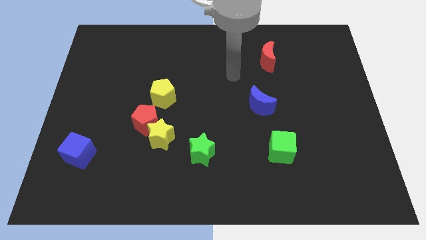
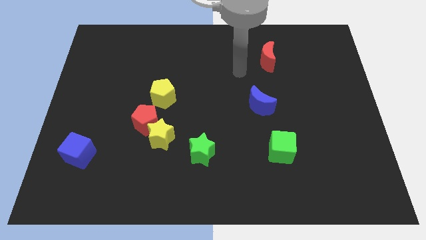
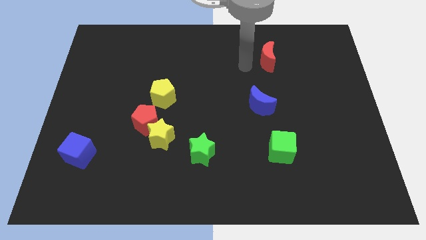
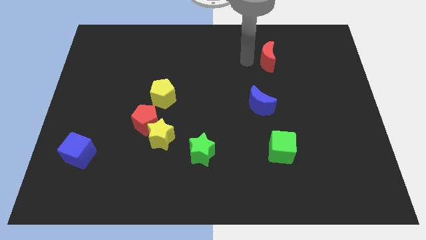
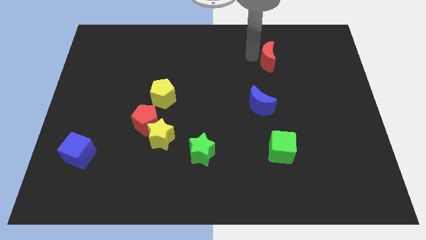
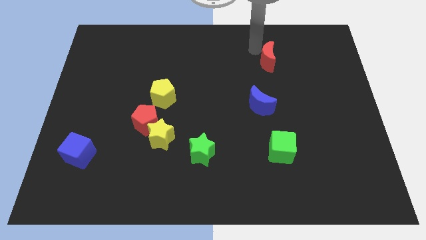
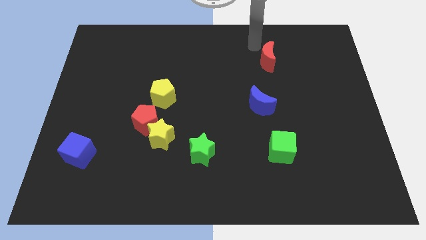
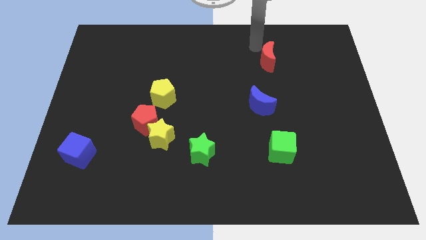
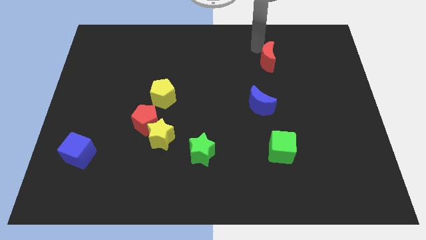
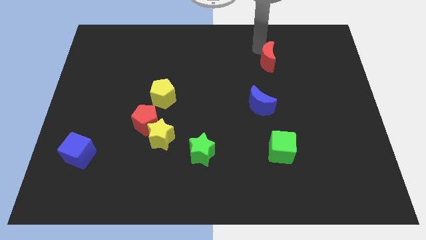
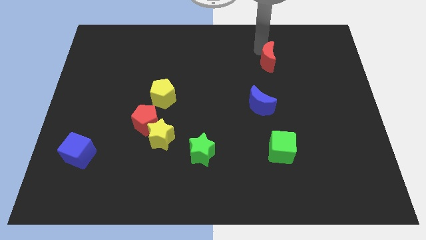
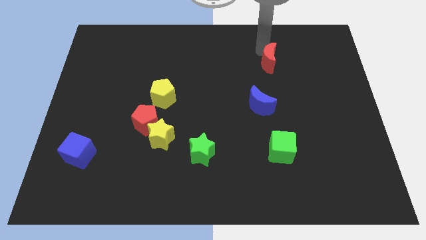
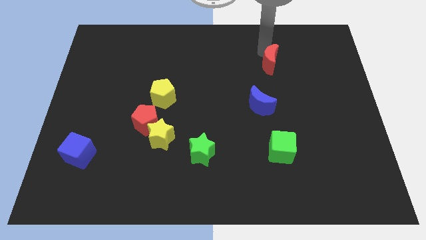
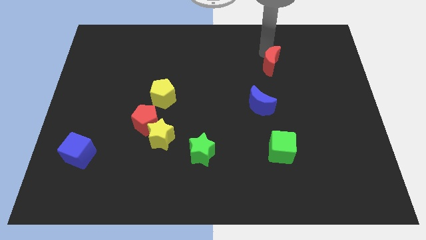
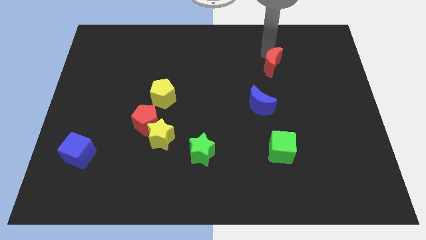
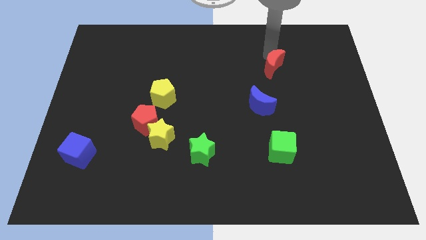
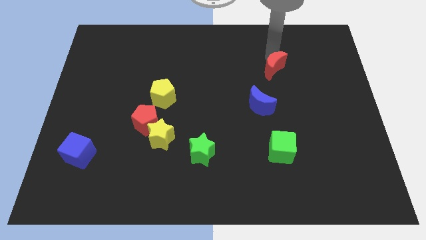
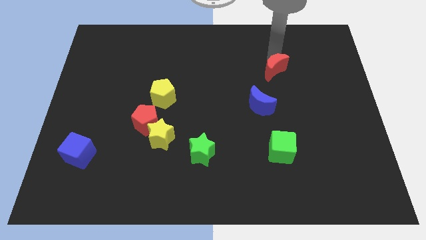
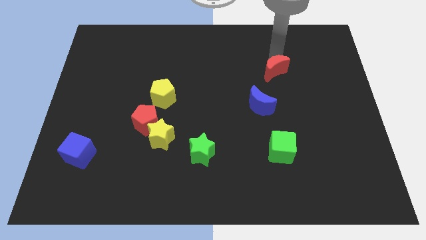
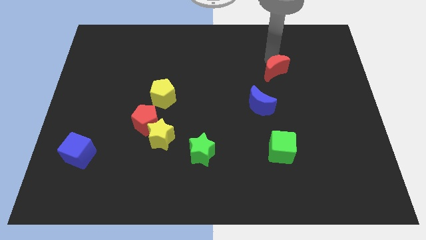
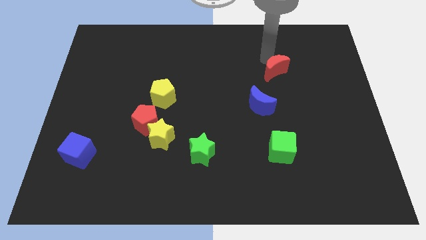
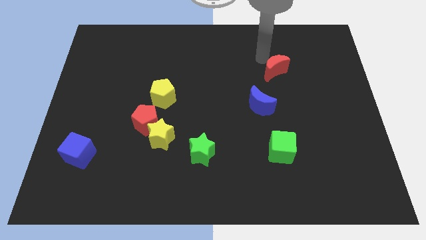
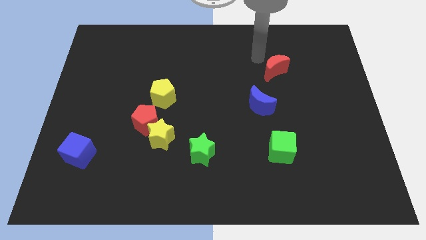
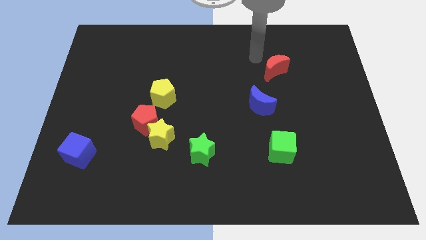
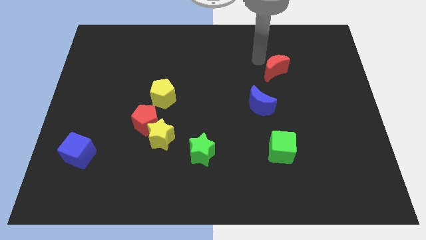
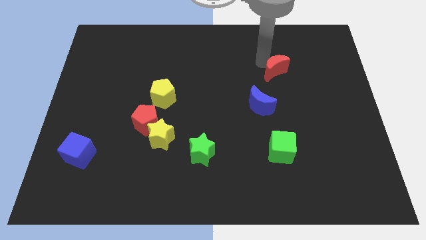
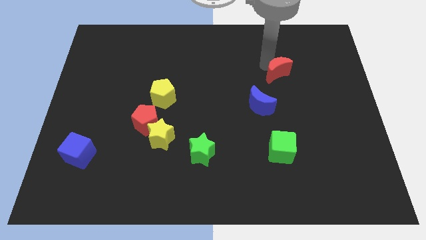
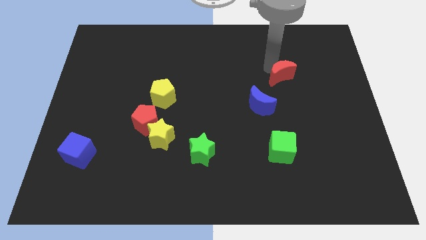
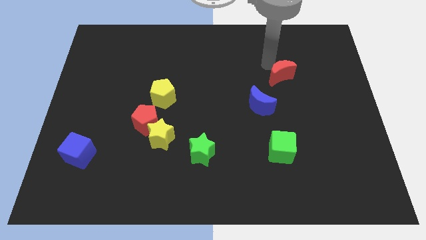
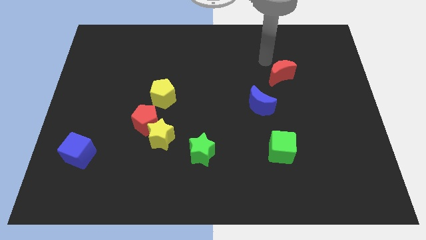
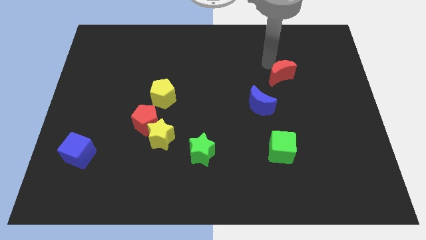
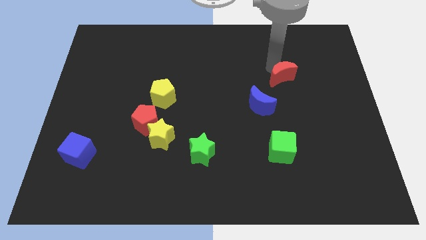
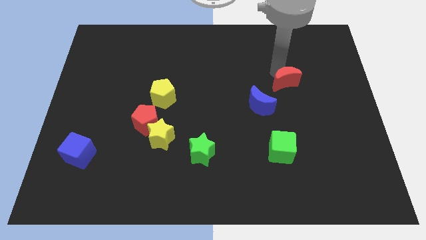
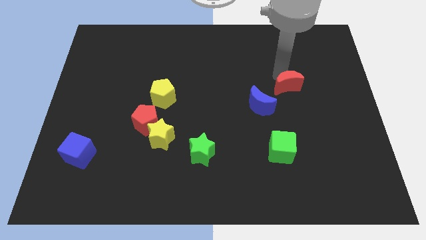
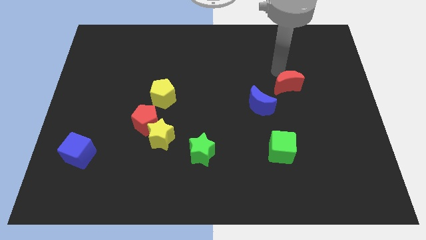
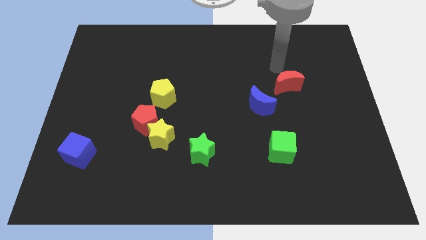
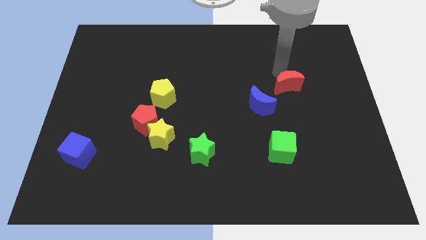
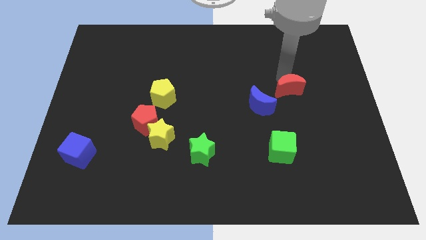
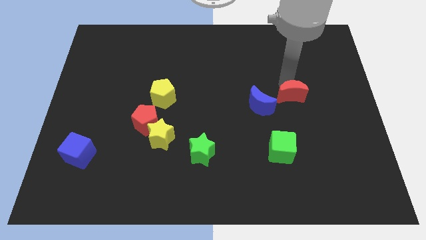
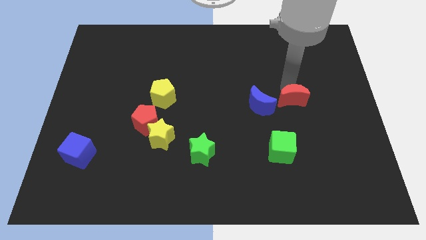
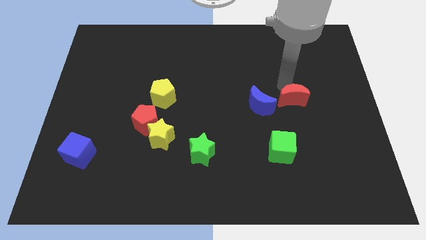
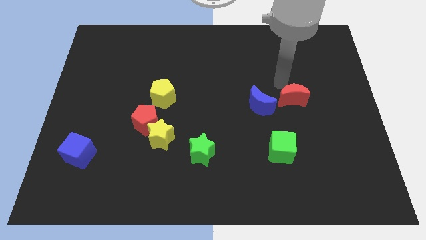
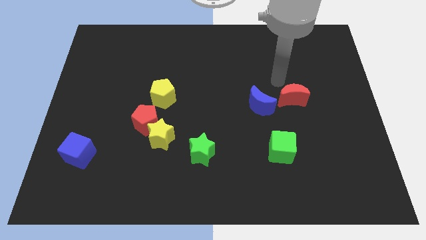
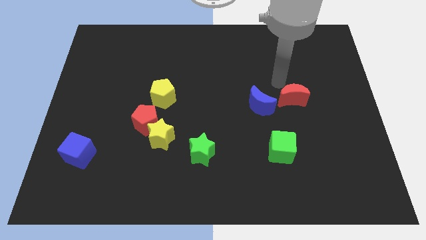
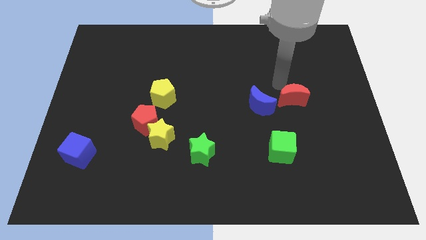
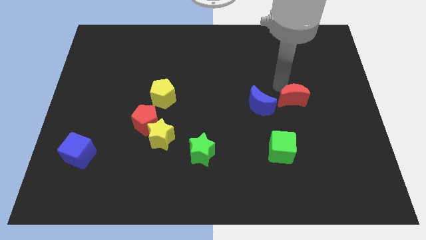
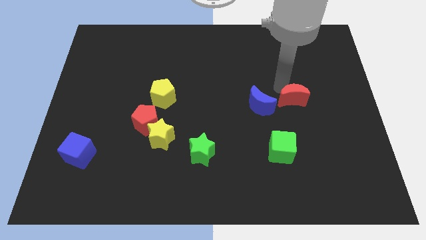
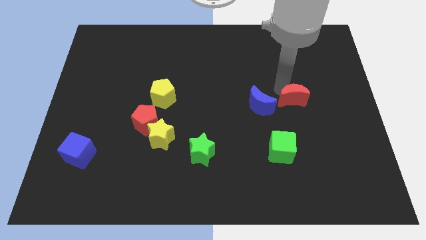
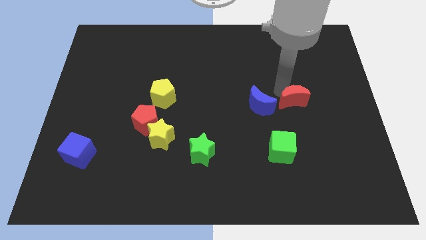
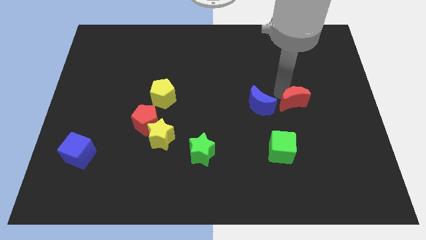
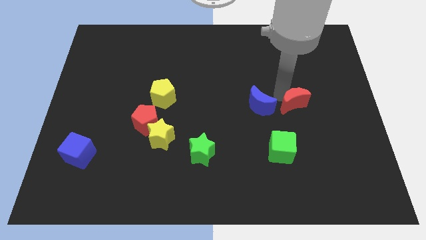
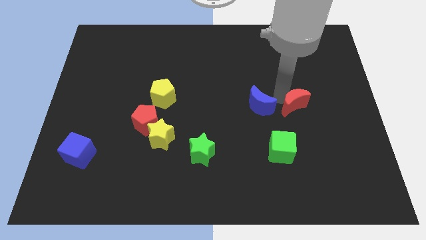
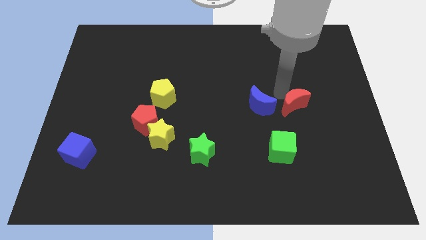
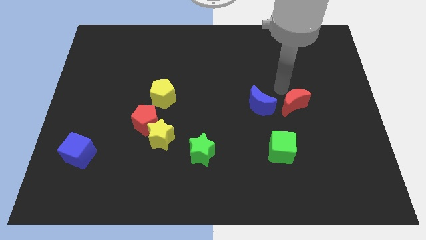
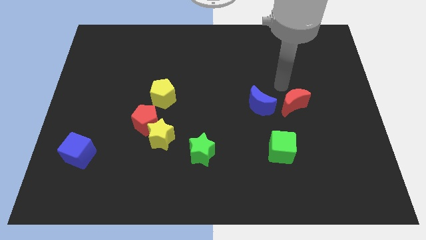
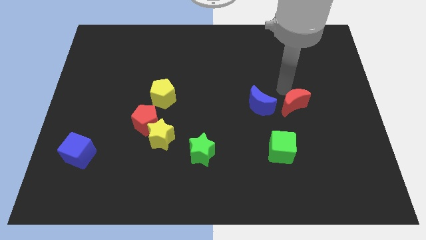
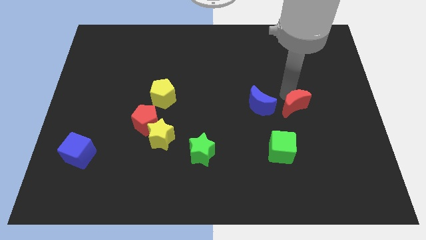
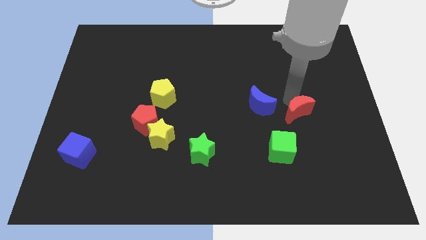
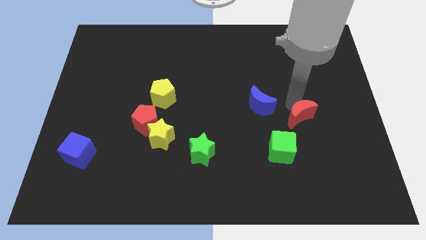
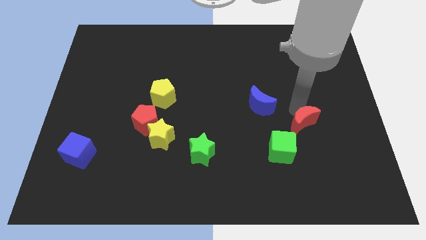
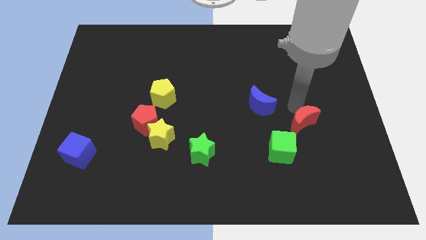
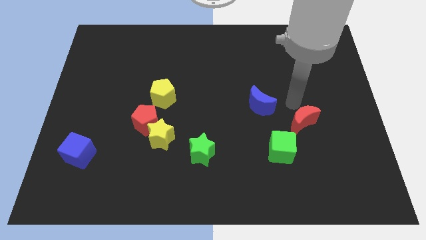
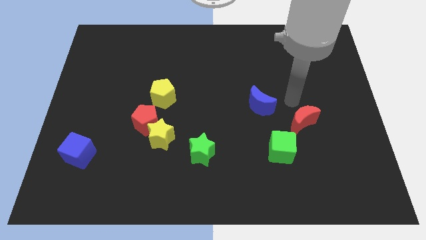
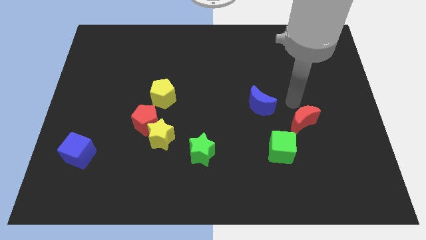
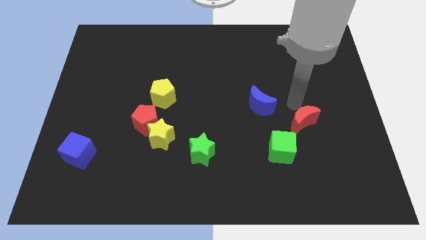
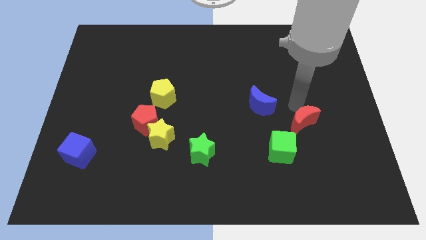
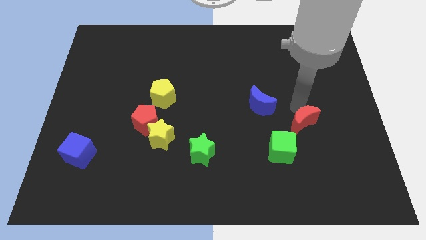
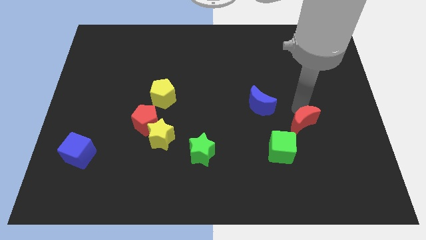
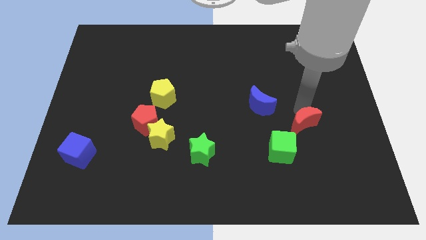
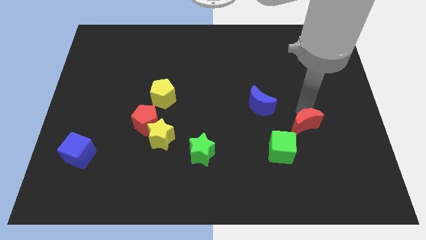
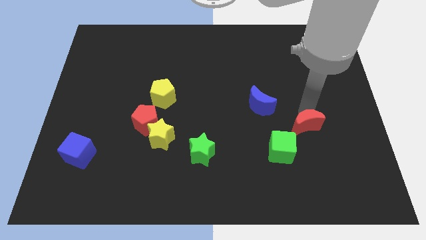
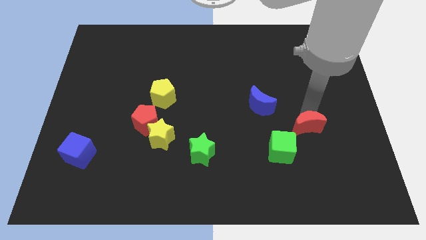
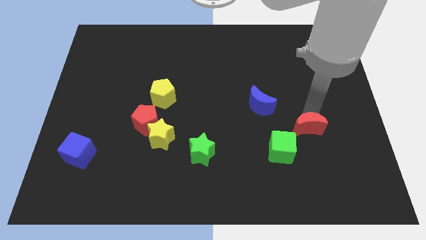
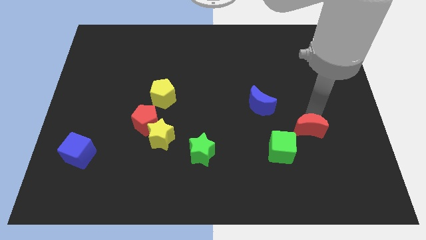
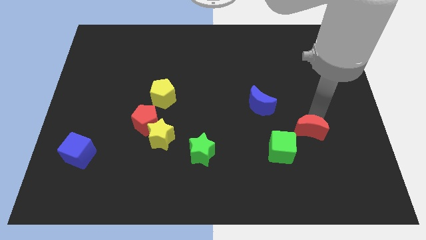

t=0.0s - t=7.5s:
push the red moon down

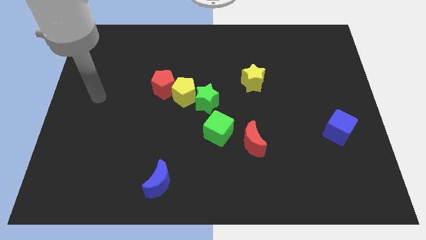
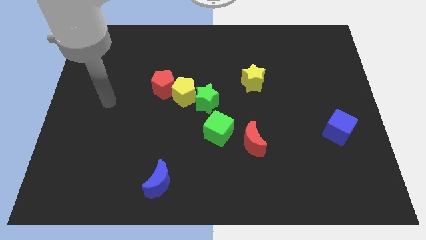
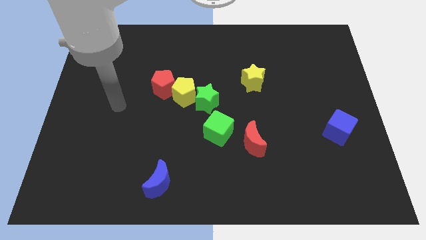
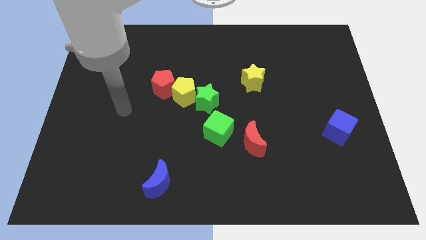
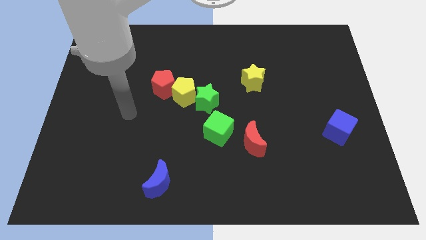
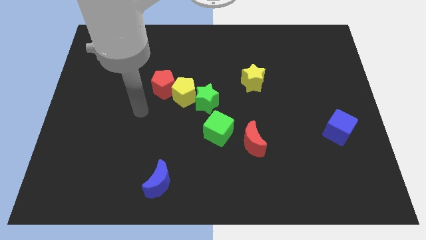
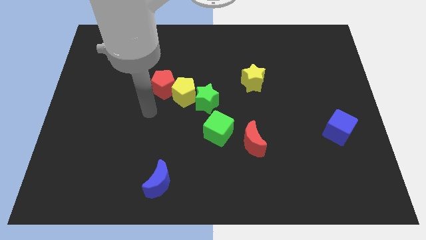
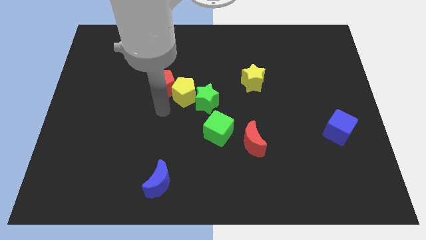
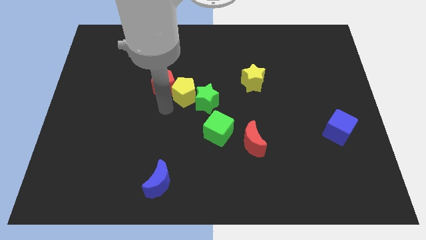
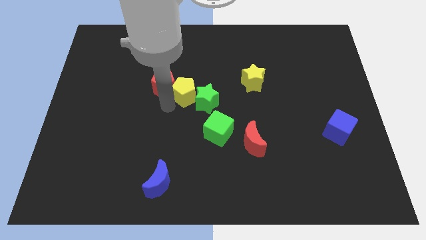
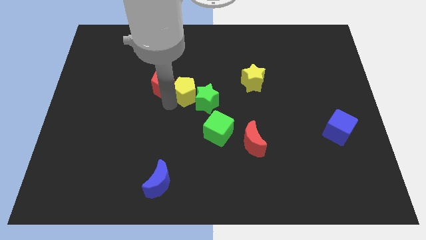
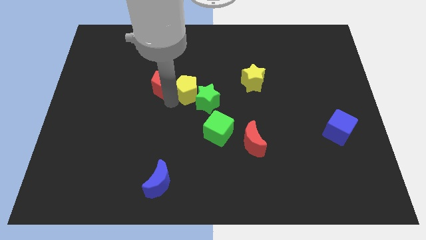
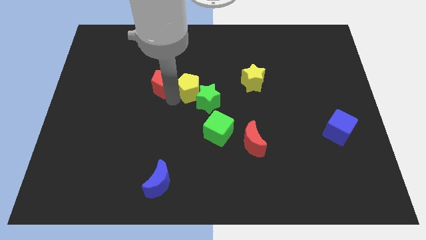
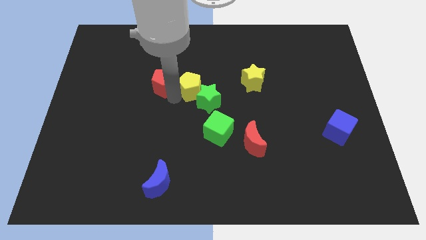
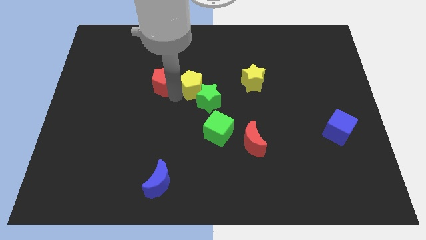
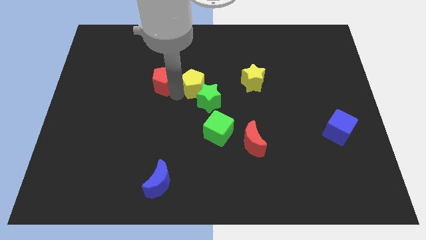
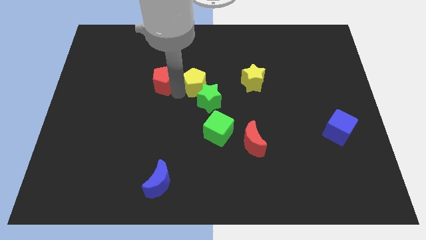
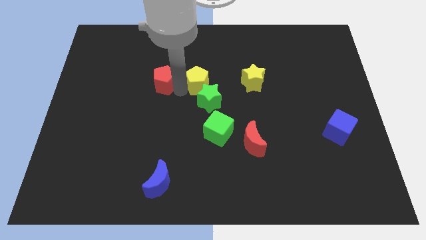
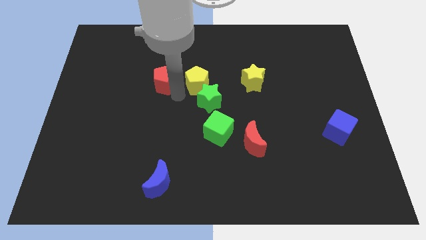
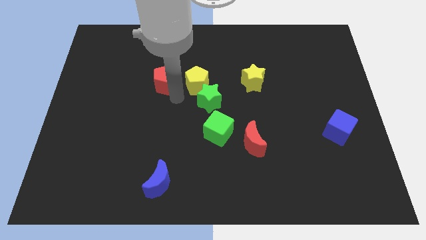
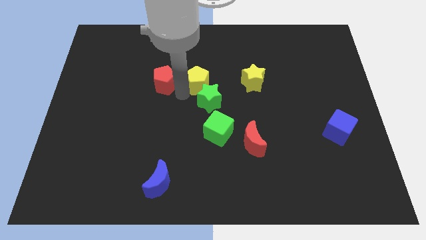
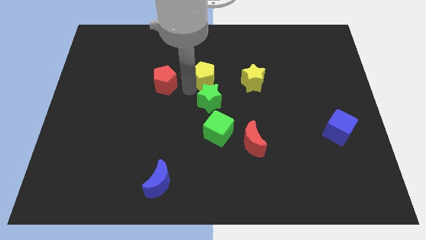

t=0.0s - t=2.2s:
move the yellow pentagon diagonally upwards and right a little bit
